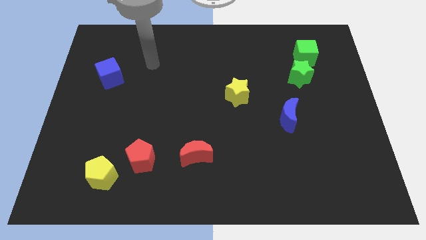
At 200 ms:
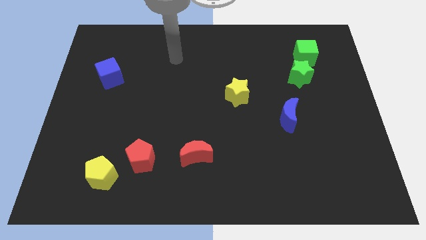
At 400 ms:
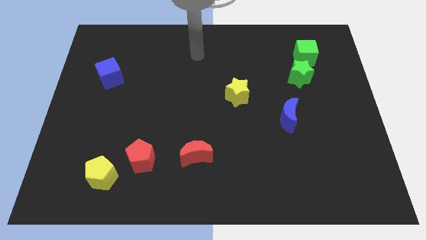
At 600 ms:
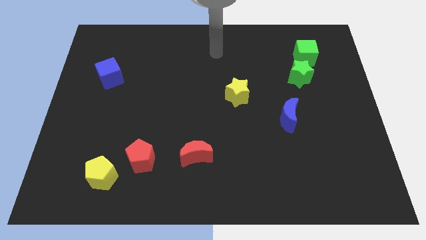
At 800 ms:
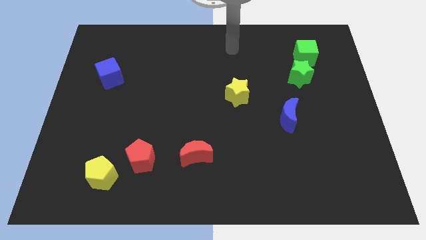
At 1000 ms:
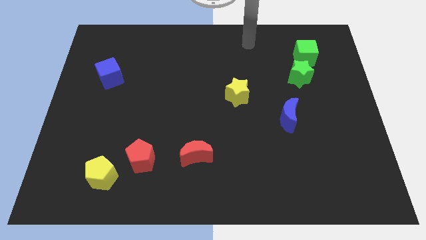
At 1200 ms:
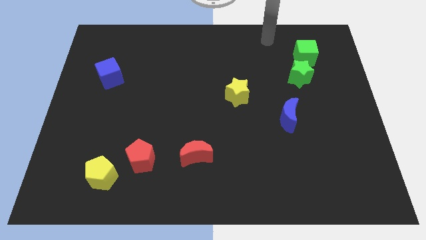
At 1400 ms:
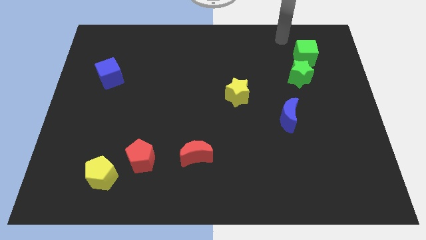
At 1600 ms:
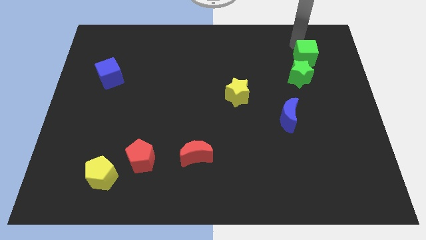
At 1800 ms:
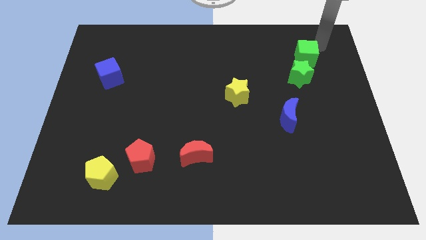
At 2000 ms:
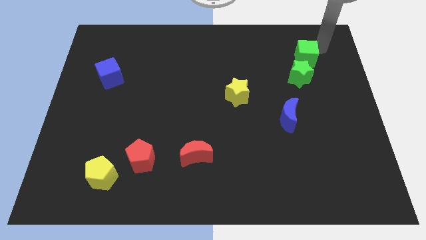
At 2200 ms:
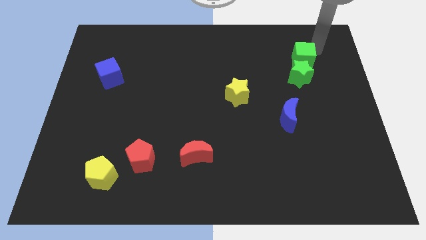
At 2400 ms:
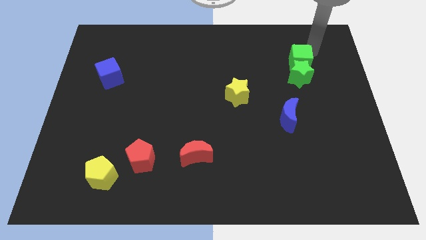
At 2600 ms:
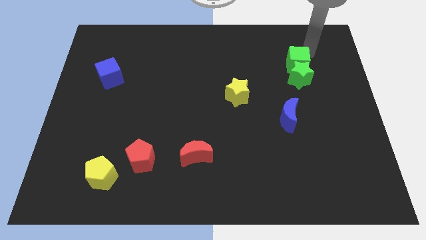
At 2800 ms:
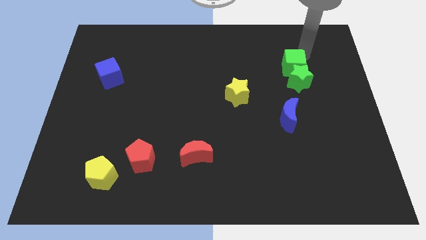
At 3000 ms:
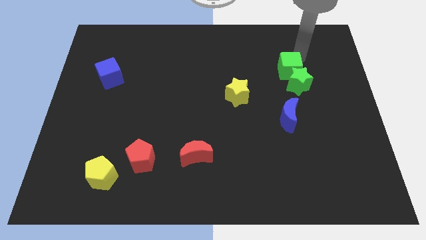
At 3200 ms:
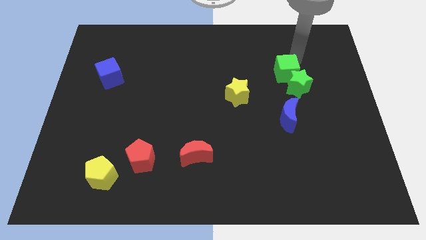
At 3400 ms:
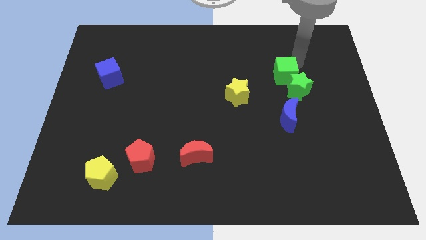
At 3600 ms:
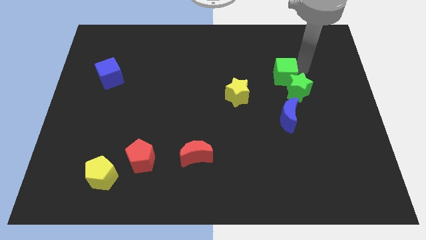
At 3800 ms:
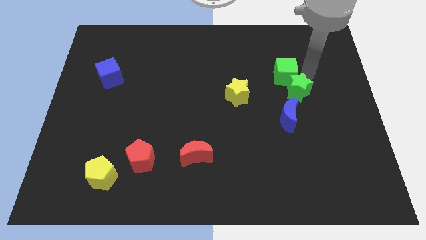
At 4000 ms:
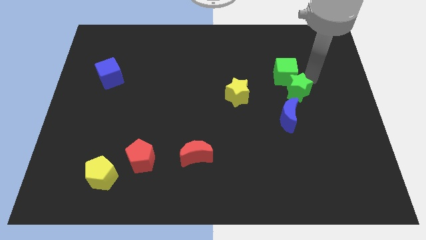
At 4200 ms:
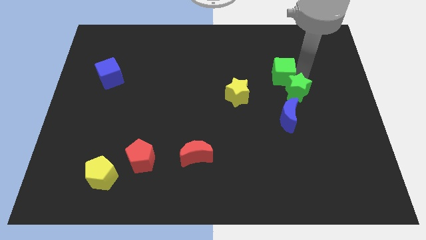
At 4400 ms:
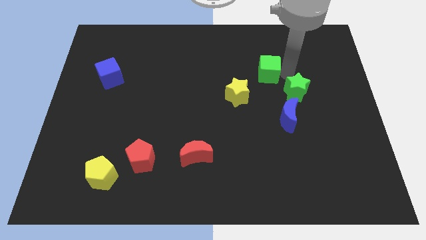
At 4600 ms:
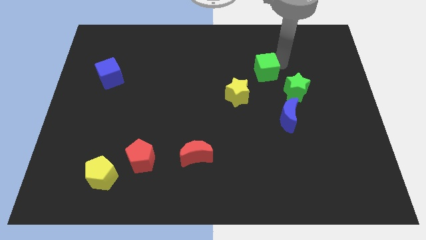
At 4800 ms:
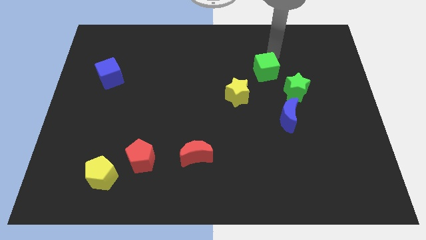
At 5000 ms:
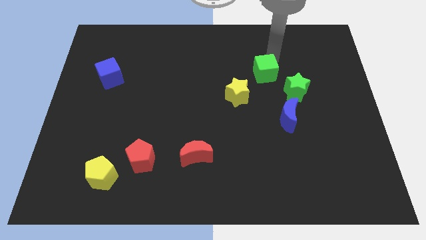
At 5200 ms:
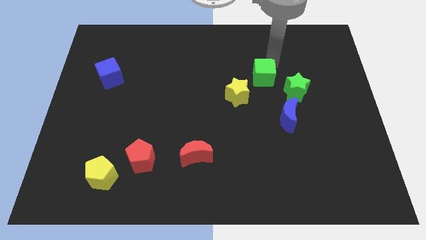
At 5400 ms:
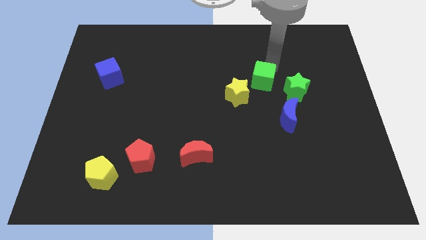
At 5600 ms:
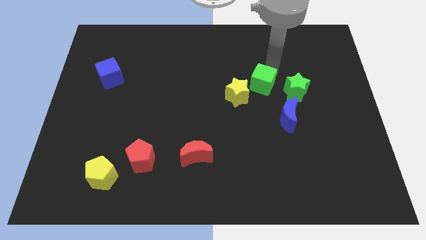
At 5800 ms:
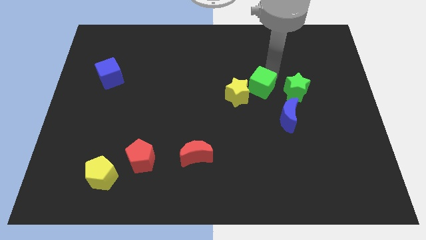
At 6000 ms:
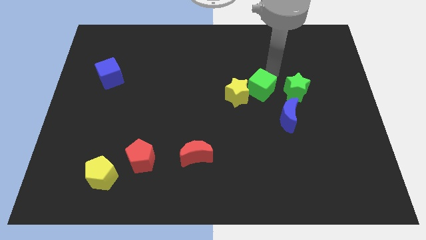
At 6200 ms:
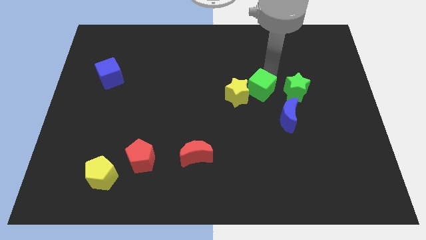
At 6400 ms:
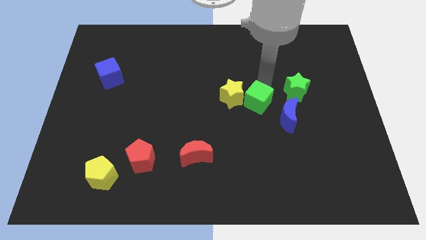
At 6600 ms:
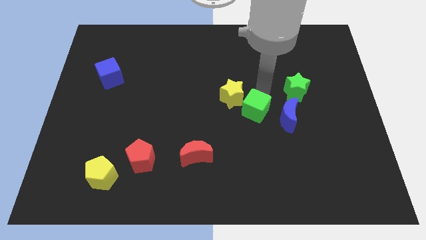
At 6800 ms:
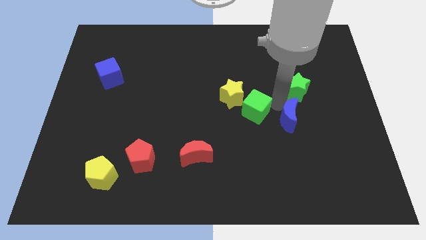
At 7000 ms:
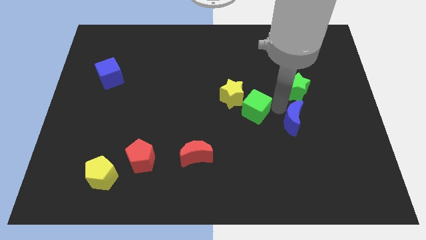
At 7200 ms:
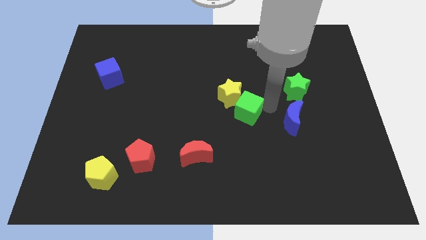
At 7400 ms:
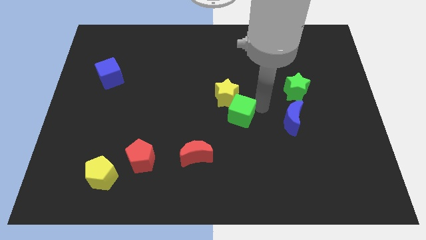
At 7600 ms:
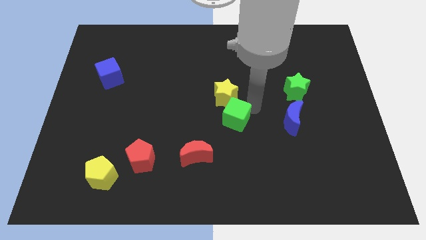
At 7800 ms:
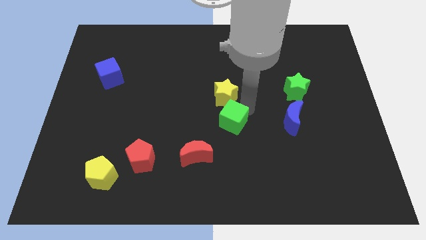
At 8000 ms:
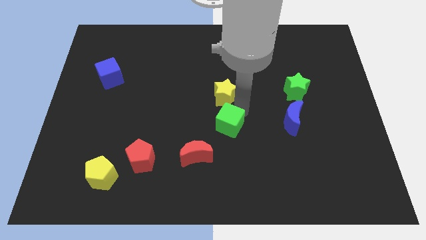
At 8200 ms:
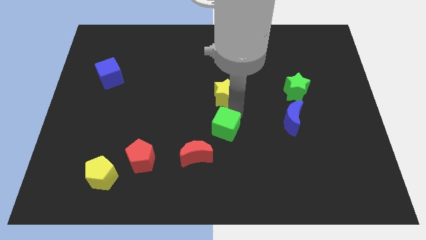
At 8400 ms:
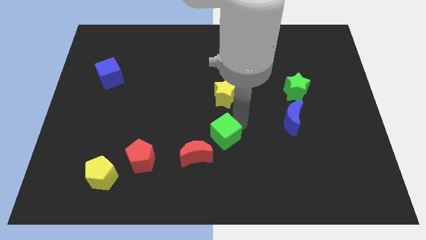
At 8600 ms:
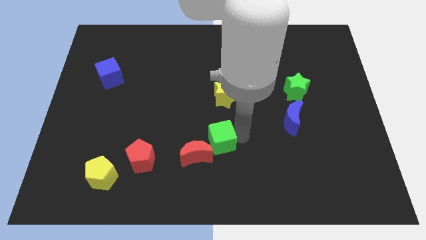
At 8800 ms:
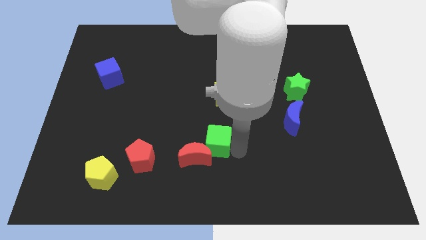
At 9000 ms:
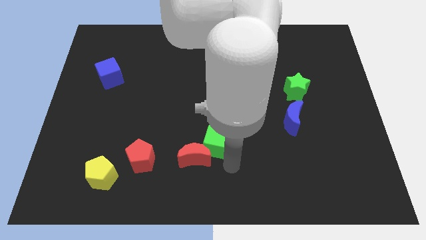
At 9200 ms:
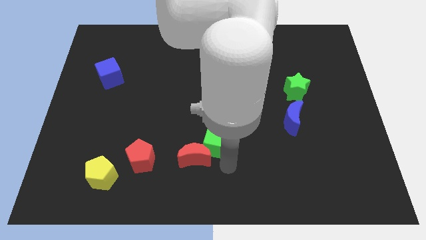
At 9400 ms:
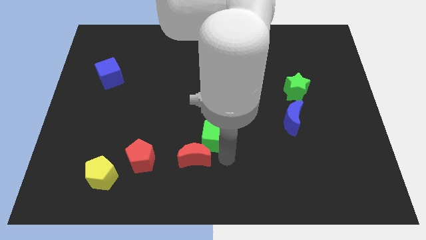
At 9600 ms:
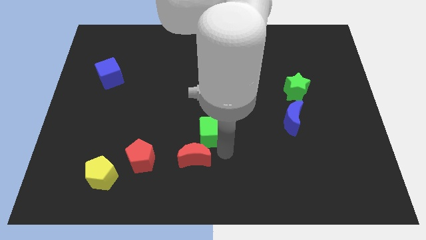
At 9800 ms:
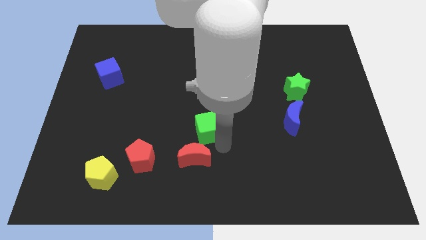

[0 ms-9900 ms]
slide the green cube to the bottom left side of the yellow star

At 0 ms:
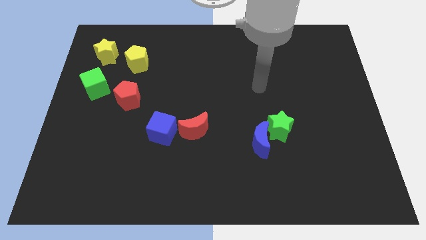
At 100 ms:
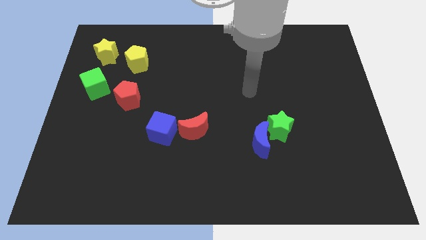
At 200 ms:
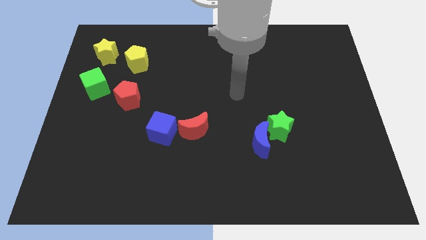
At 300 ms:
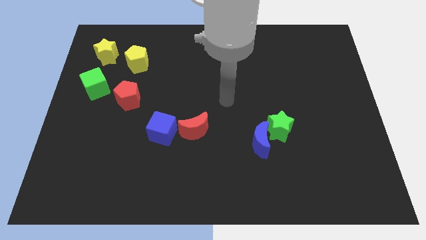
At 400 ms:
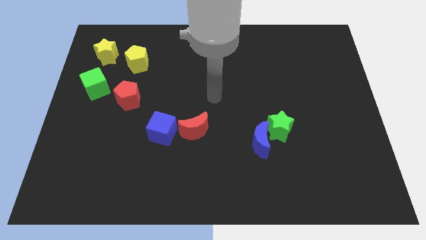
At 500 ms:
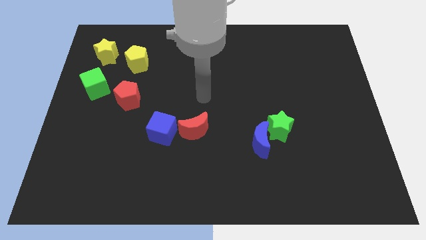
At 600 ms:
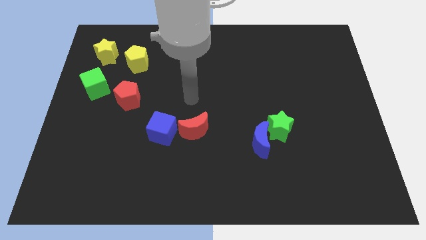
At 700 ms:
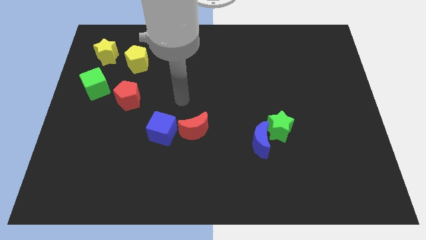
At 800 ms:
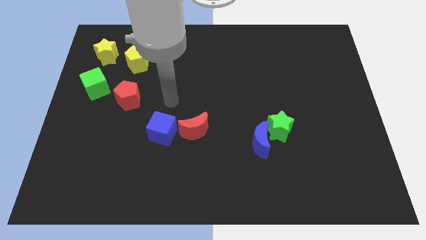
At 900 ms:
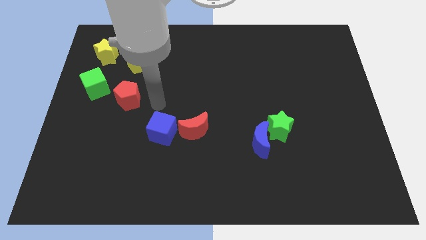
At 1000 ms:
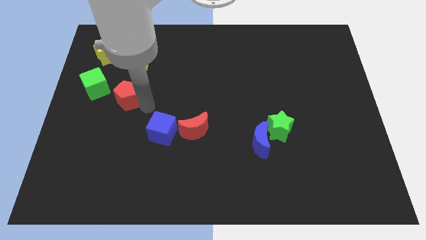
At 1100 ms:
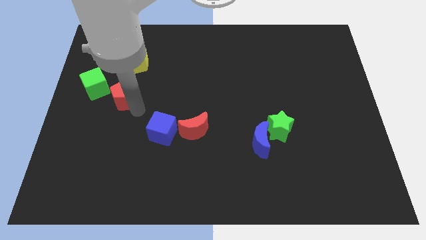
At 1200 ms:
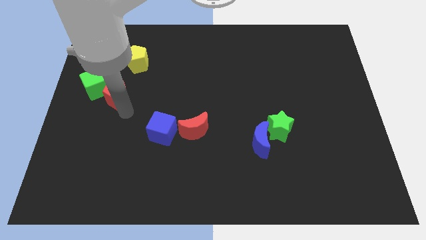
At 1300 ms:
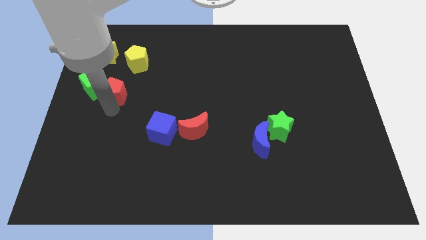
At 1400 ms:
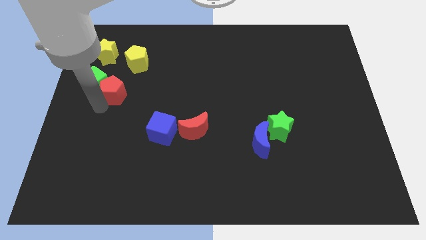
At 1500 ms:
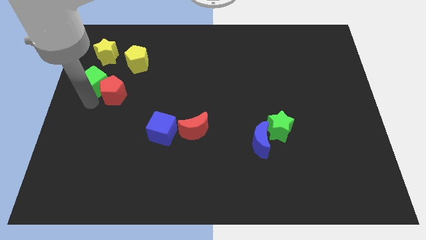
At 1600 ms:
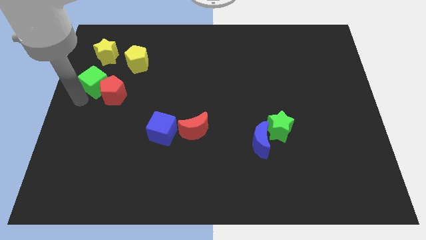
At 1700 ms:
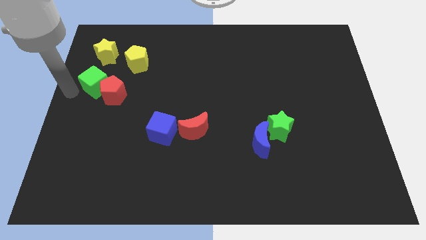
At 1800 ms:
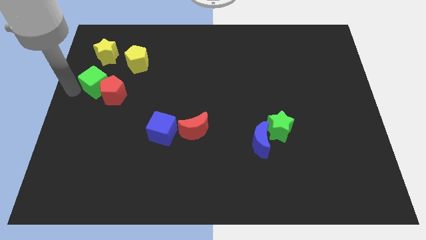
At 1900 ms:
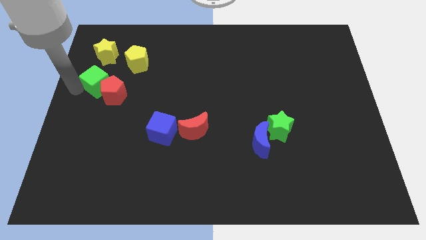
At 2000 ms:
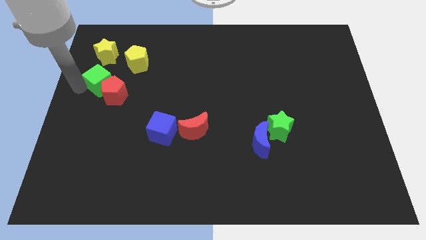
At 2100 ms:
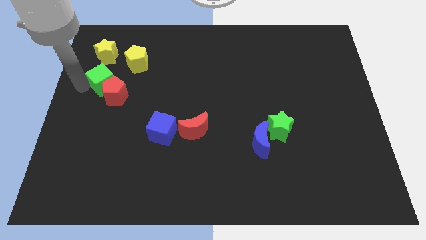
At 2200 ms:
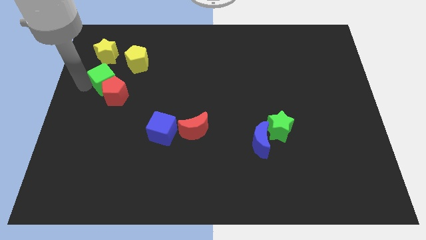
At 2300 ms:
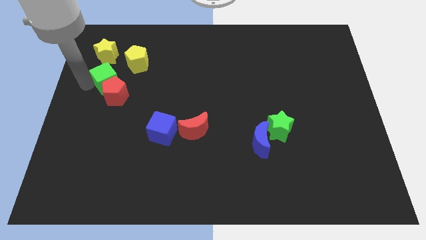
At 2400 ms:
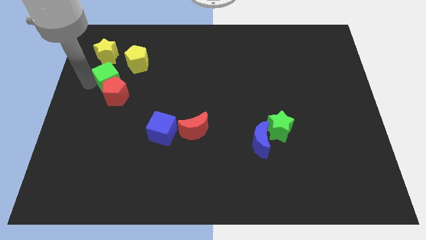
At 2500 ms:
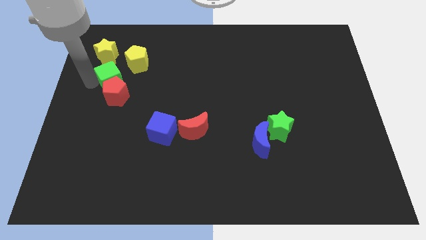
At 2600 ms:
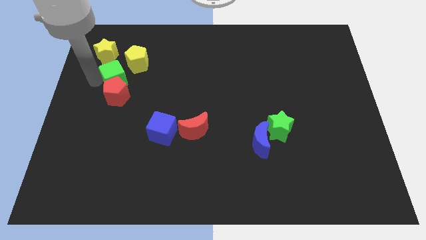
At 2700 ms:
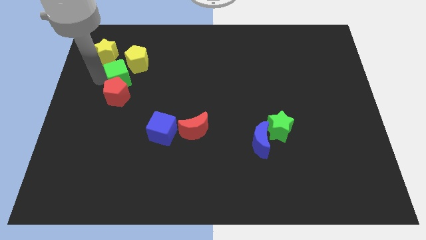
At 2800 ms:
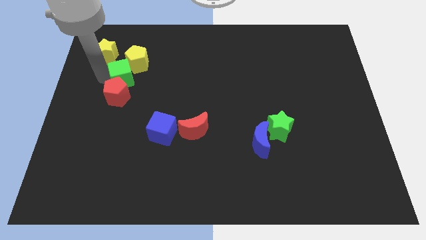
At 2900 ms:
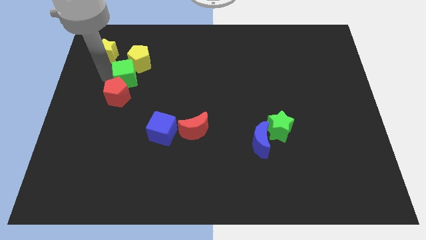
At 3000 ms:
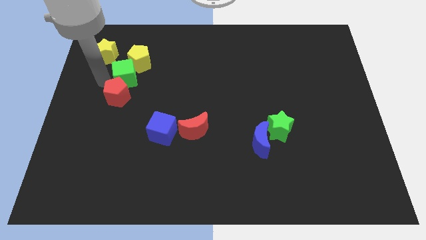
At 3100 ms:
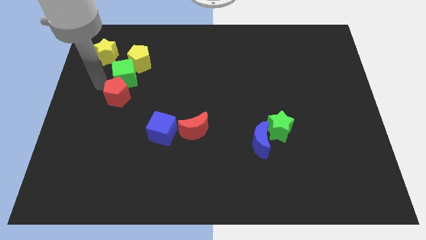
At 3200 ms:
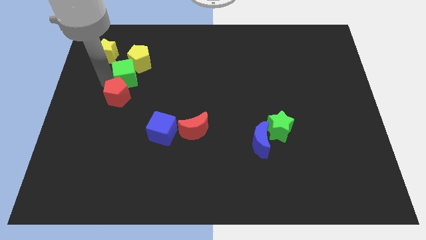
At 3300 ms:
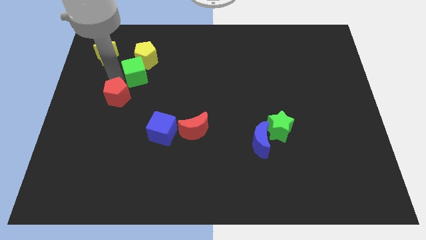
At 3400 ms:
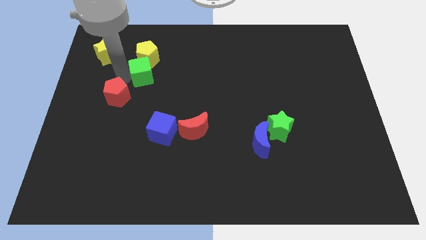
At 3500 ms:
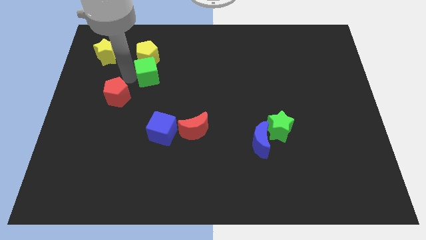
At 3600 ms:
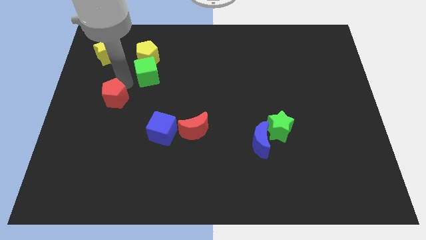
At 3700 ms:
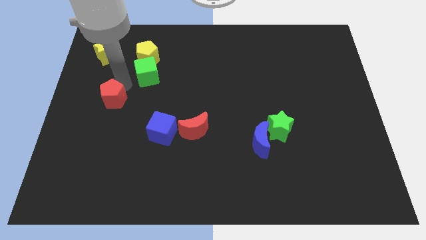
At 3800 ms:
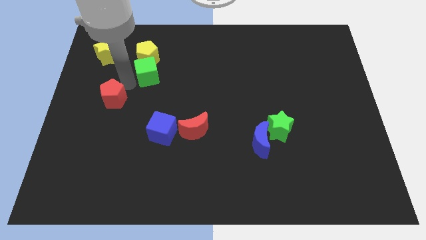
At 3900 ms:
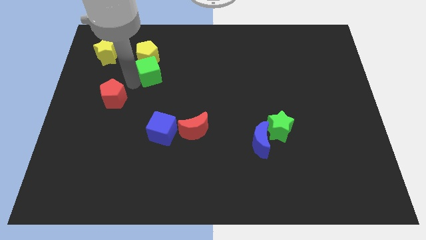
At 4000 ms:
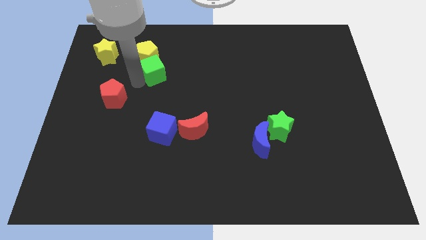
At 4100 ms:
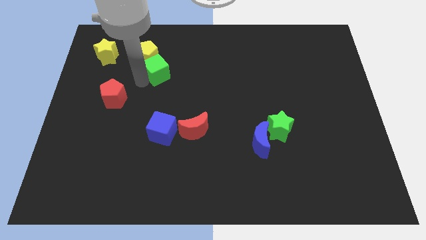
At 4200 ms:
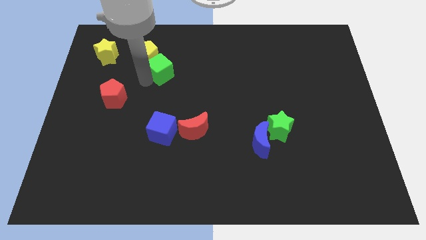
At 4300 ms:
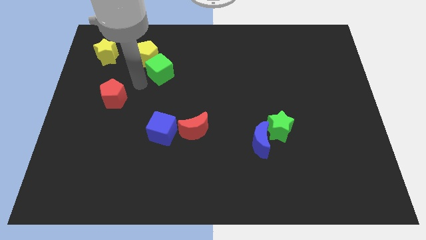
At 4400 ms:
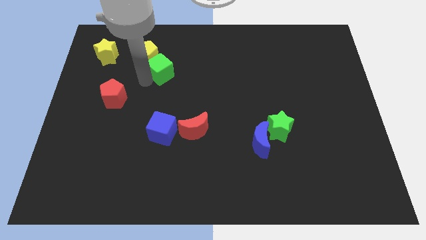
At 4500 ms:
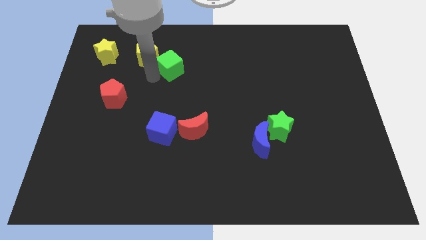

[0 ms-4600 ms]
slide the green cube to the right of the yellow pentagon
